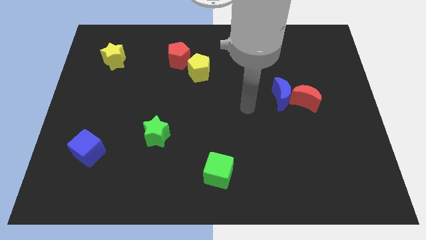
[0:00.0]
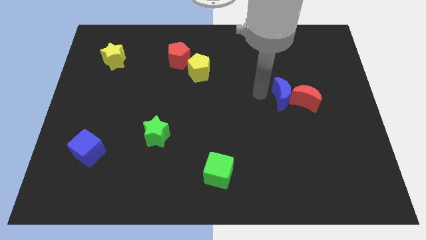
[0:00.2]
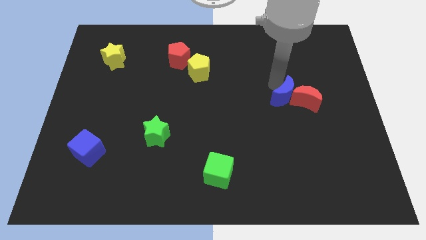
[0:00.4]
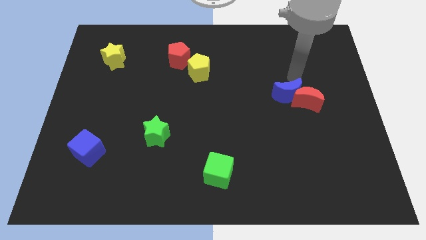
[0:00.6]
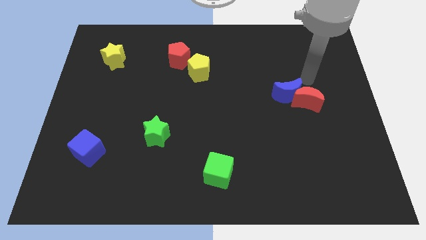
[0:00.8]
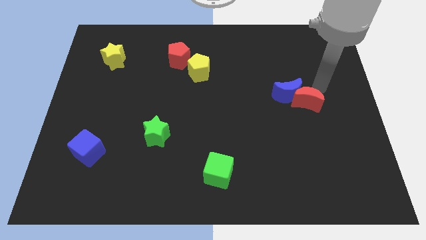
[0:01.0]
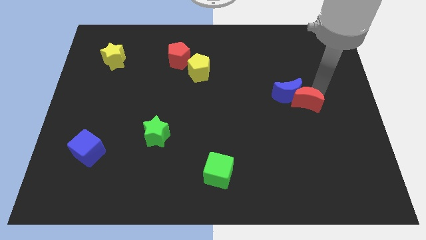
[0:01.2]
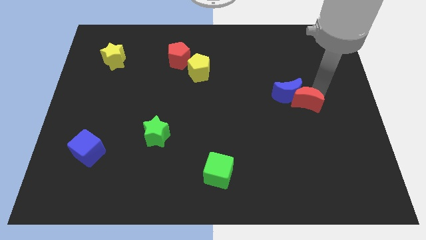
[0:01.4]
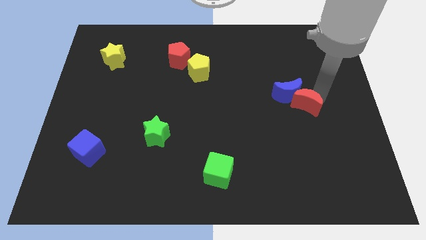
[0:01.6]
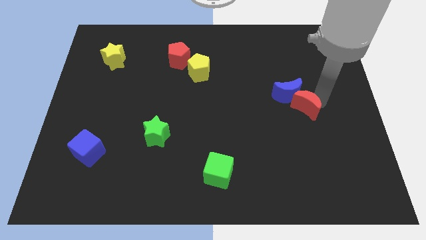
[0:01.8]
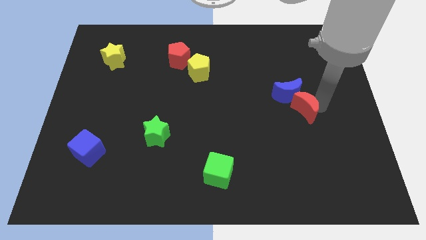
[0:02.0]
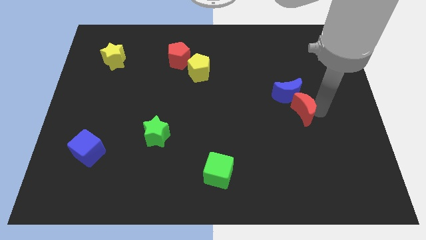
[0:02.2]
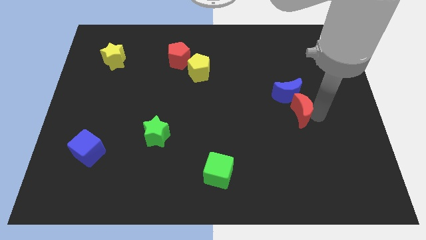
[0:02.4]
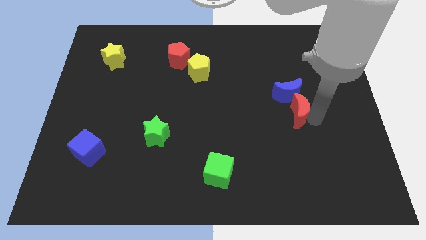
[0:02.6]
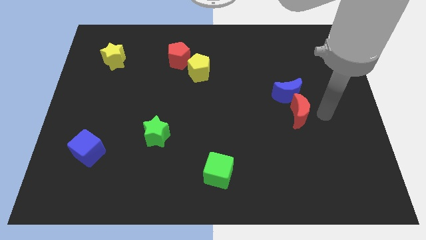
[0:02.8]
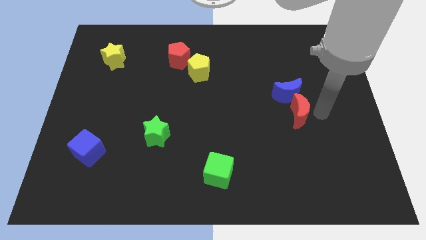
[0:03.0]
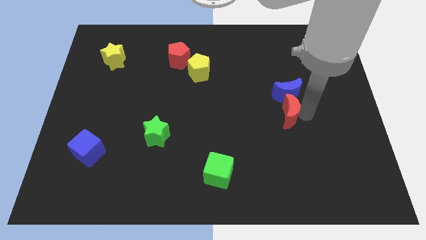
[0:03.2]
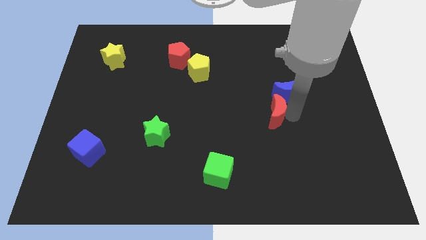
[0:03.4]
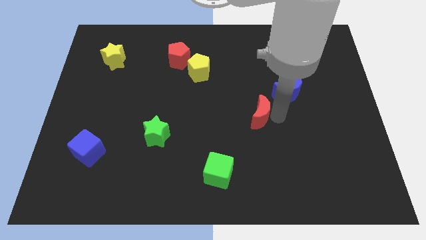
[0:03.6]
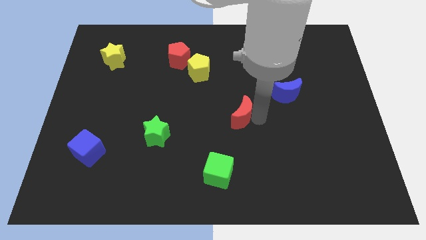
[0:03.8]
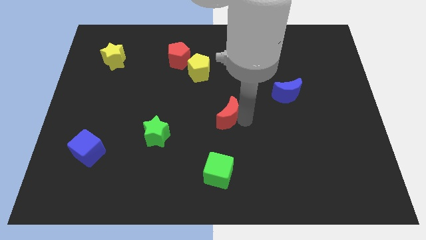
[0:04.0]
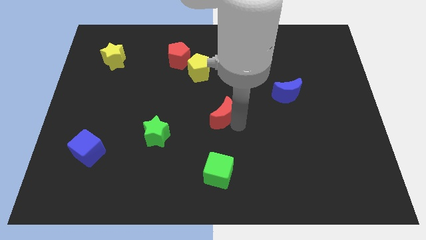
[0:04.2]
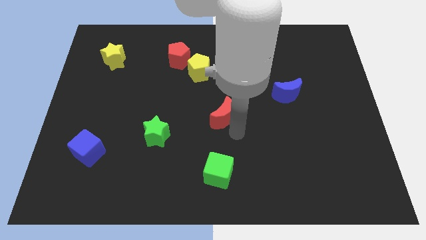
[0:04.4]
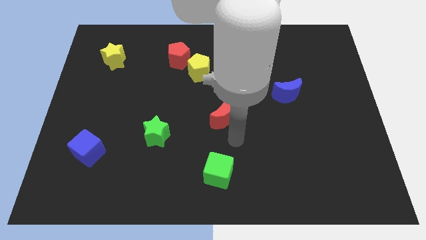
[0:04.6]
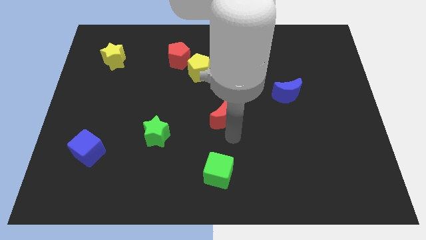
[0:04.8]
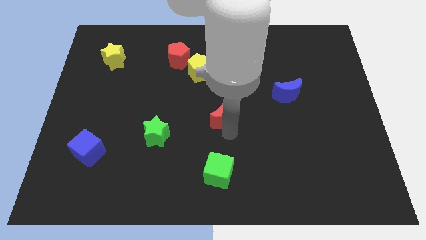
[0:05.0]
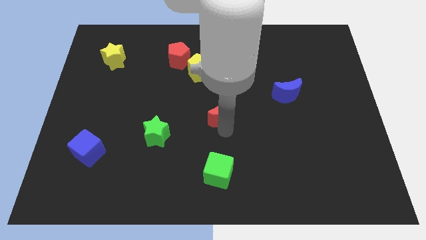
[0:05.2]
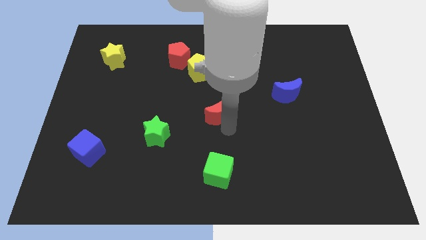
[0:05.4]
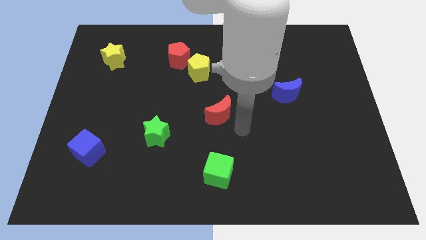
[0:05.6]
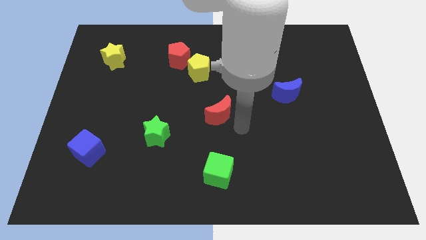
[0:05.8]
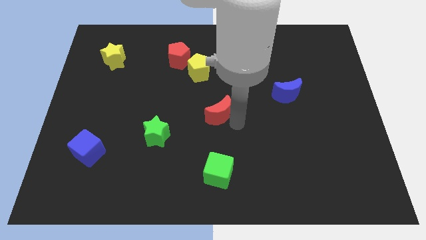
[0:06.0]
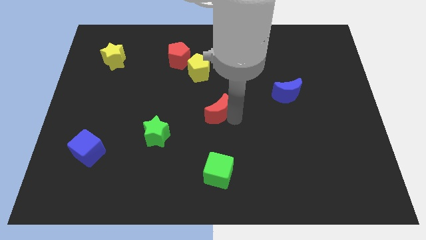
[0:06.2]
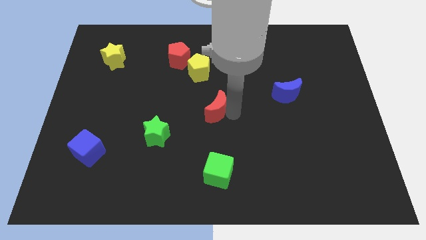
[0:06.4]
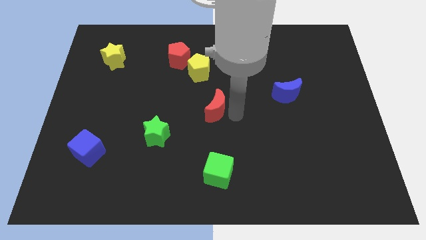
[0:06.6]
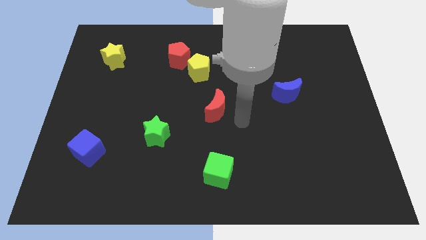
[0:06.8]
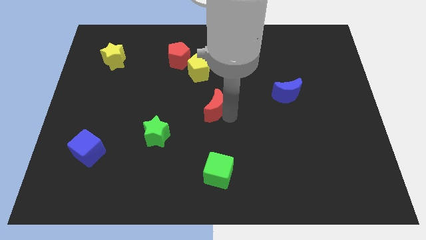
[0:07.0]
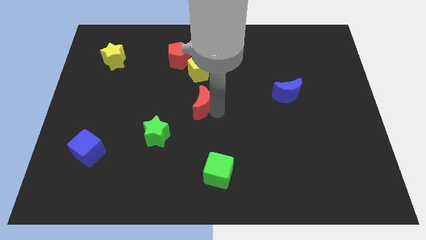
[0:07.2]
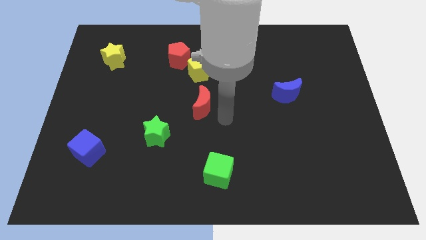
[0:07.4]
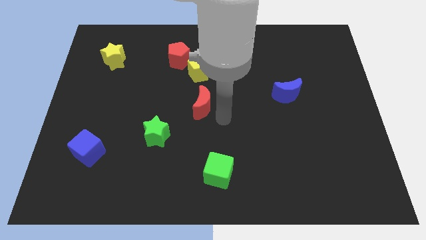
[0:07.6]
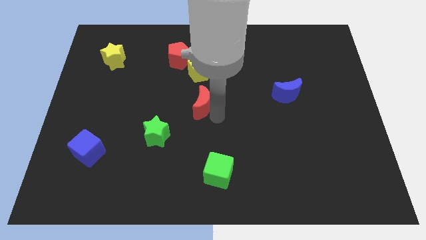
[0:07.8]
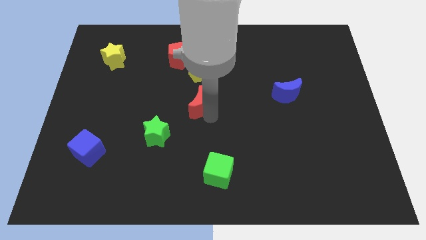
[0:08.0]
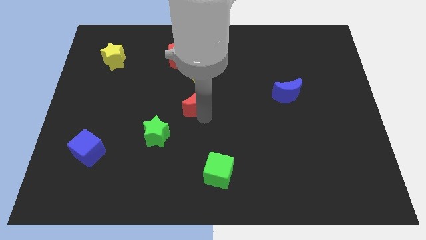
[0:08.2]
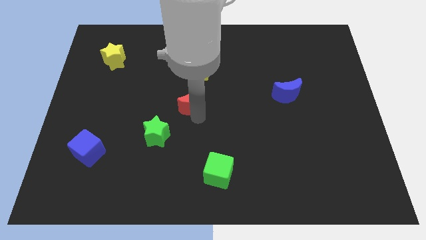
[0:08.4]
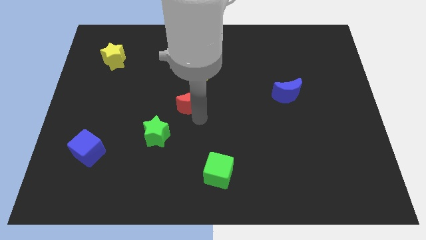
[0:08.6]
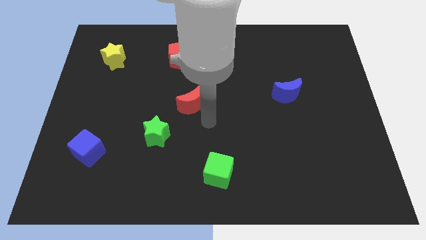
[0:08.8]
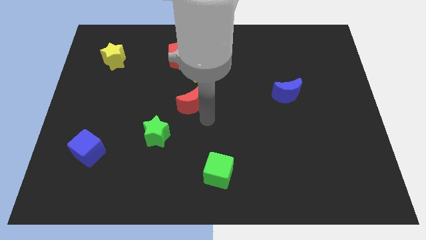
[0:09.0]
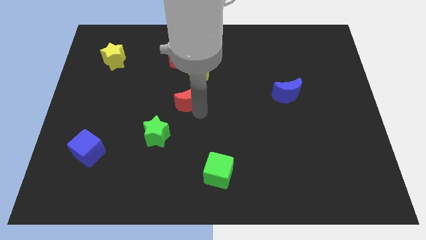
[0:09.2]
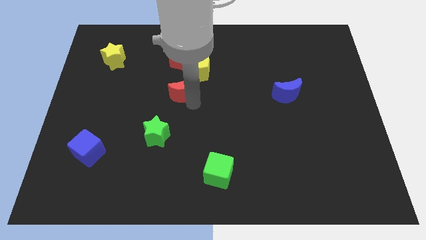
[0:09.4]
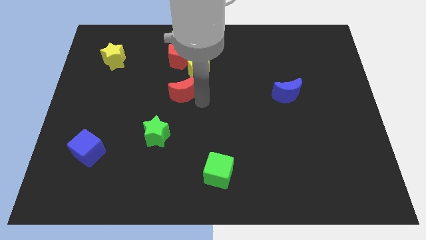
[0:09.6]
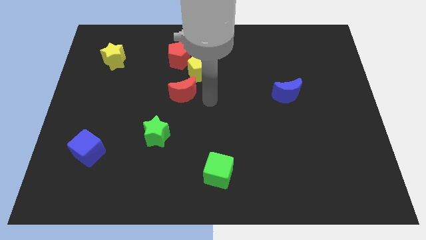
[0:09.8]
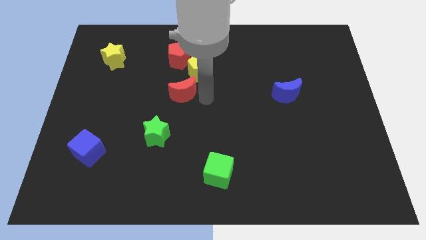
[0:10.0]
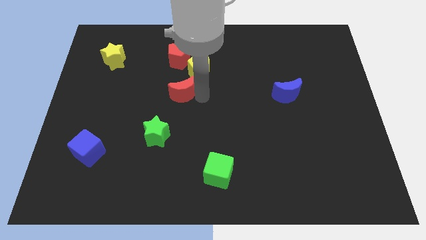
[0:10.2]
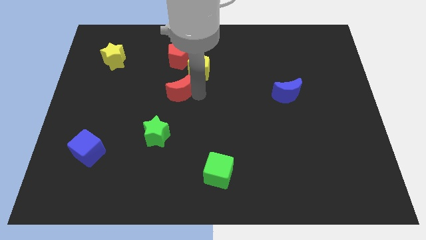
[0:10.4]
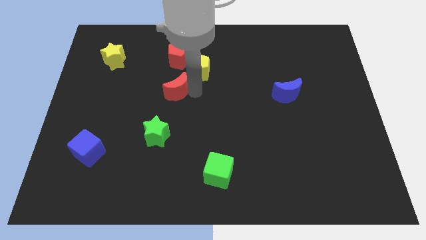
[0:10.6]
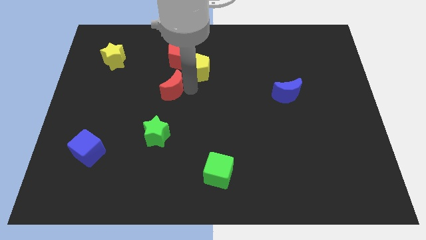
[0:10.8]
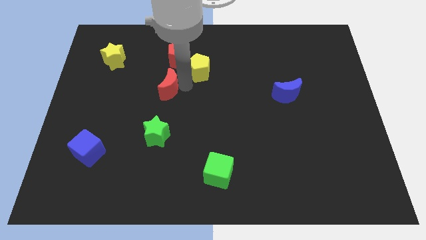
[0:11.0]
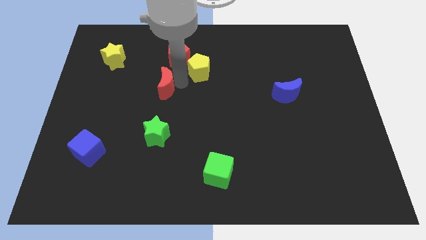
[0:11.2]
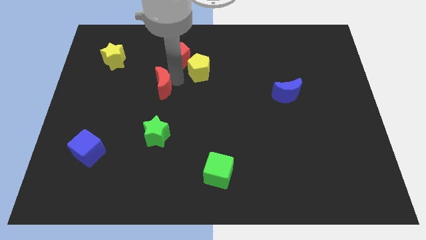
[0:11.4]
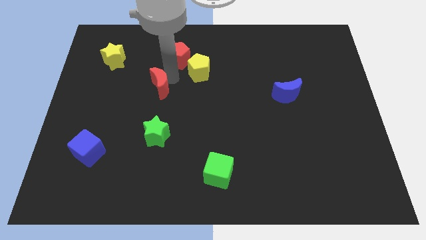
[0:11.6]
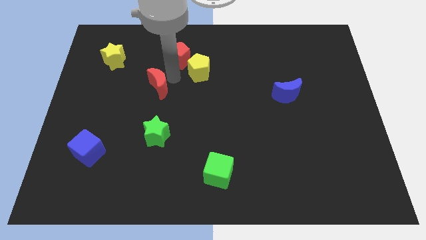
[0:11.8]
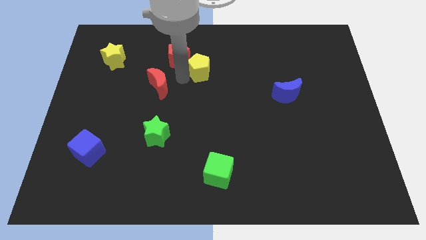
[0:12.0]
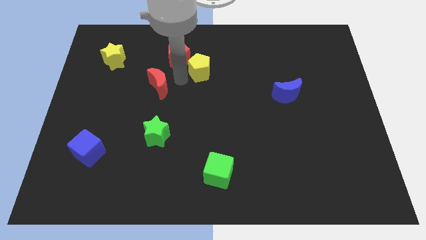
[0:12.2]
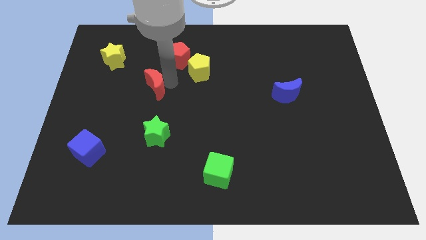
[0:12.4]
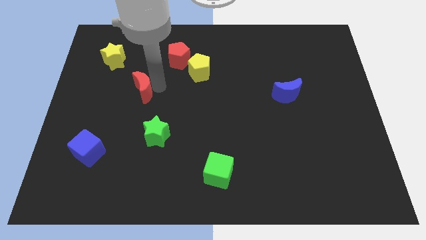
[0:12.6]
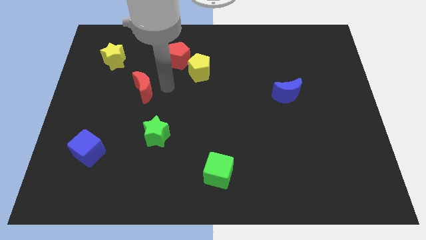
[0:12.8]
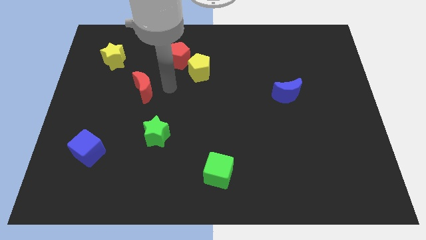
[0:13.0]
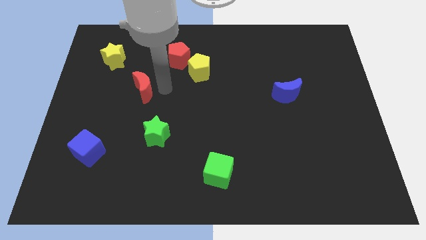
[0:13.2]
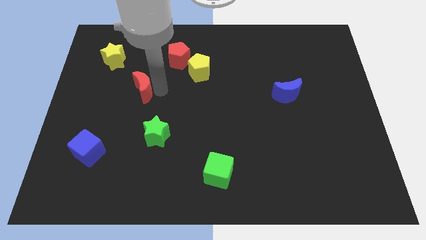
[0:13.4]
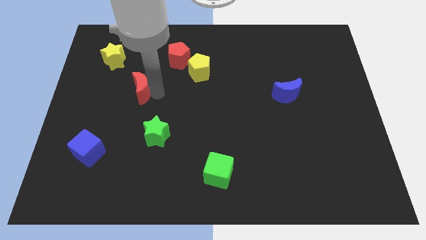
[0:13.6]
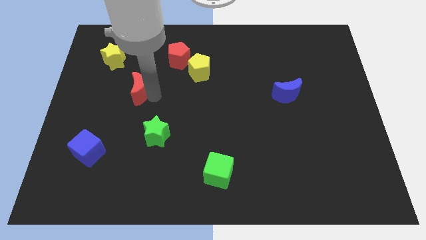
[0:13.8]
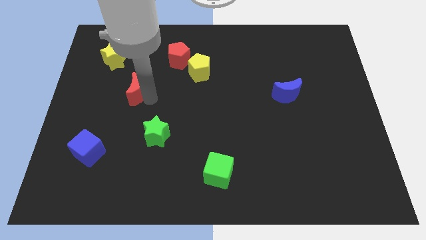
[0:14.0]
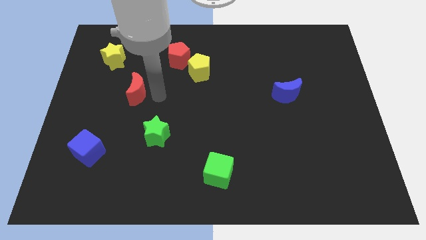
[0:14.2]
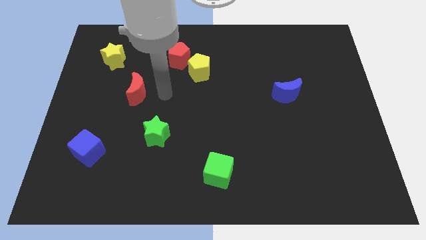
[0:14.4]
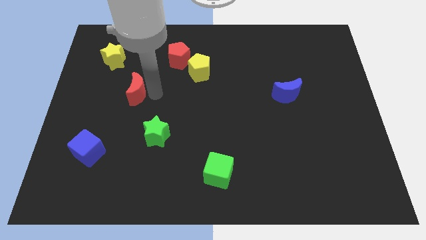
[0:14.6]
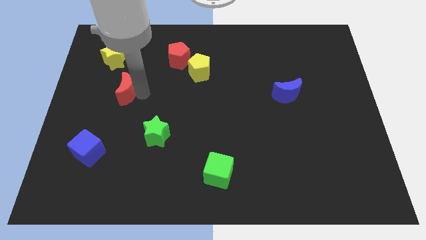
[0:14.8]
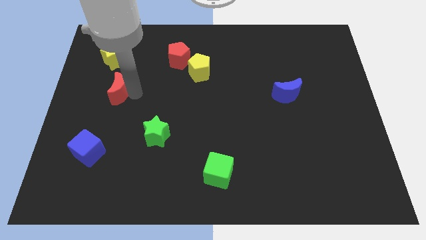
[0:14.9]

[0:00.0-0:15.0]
push the red moon to the bottom of the yellow star
